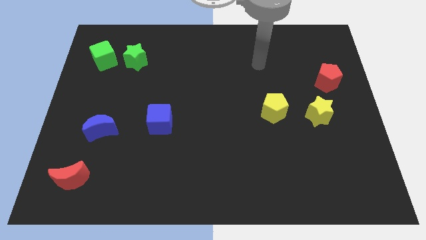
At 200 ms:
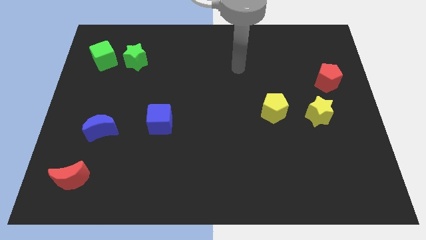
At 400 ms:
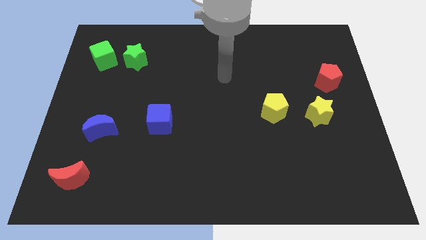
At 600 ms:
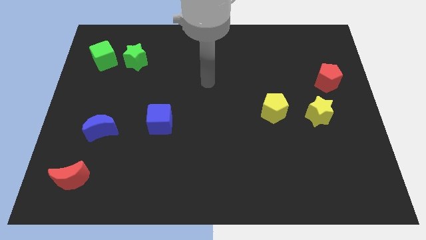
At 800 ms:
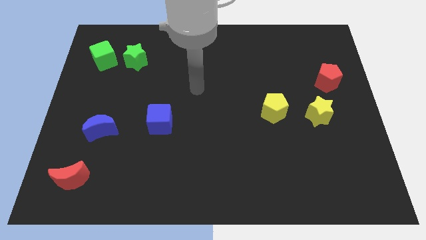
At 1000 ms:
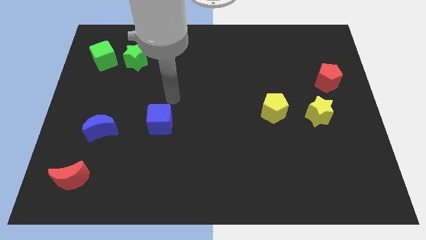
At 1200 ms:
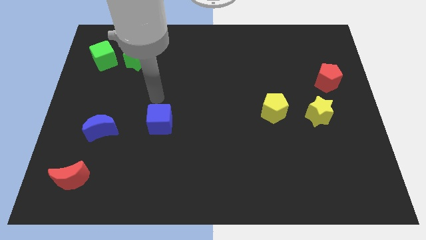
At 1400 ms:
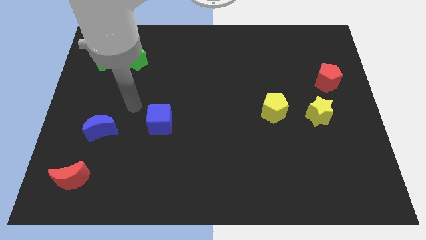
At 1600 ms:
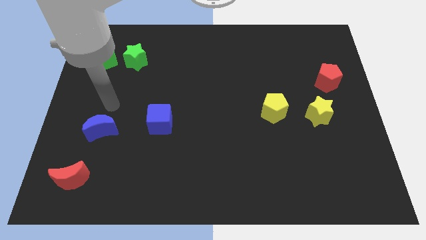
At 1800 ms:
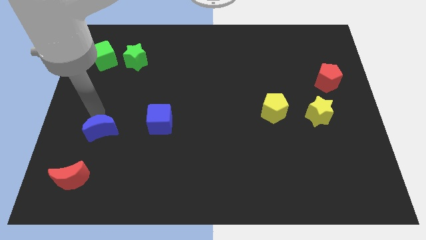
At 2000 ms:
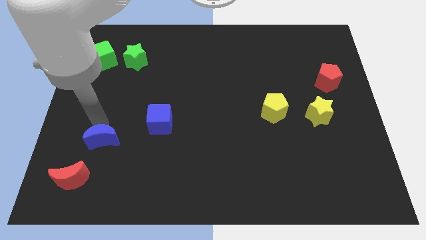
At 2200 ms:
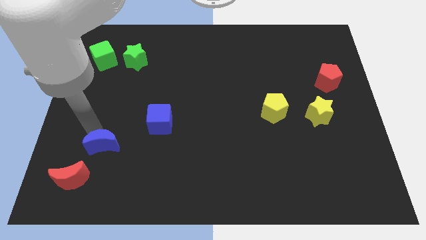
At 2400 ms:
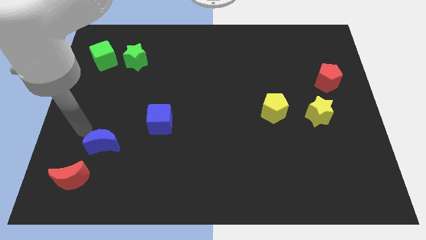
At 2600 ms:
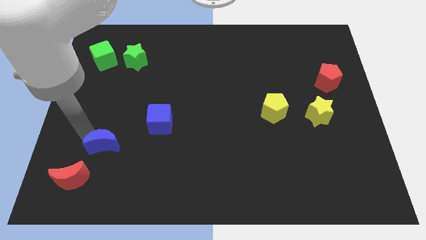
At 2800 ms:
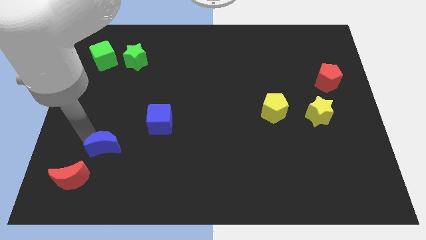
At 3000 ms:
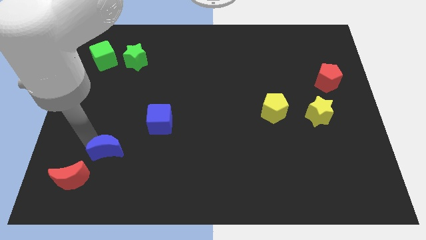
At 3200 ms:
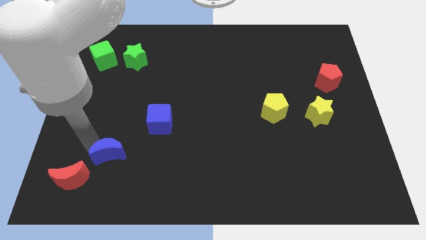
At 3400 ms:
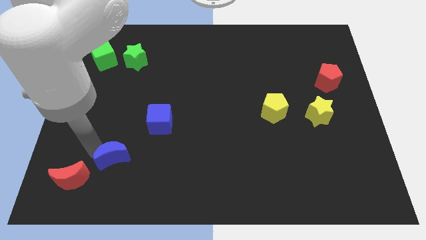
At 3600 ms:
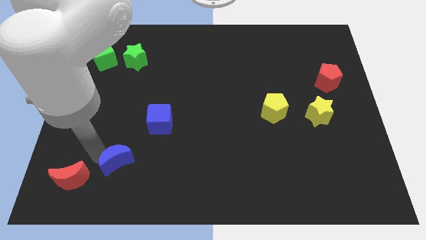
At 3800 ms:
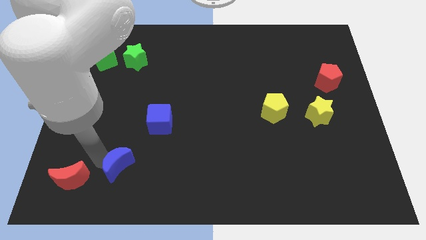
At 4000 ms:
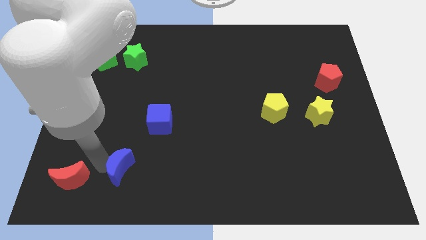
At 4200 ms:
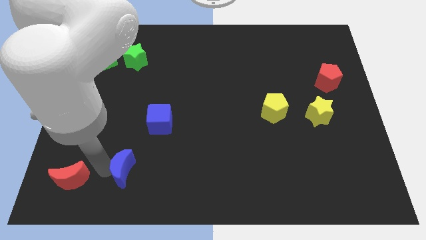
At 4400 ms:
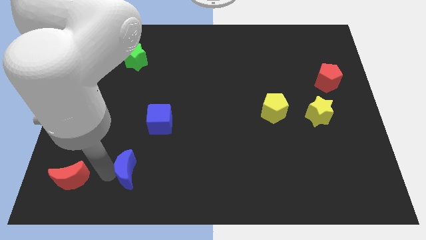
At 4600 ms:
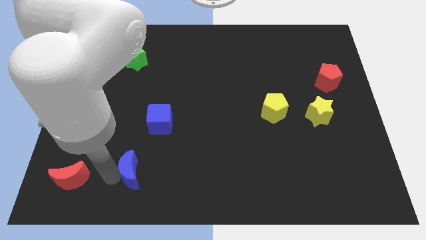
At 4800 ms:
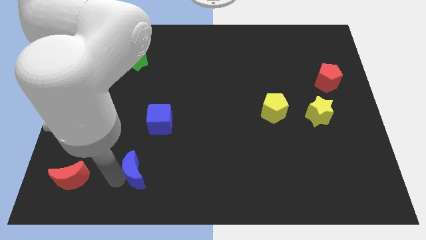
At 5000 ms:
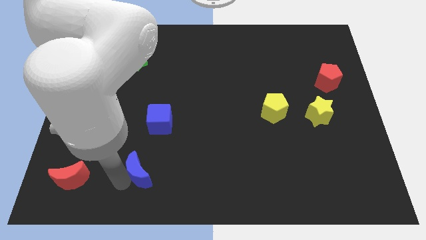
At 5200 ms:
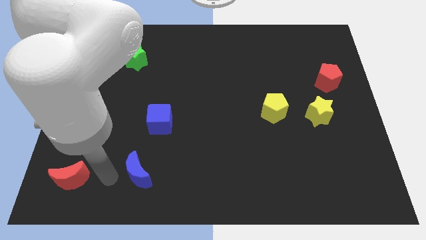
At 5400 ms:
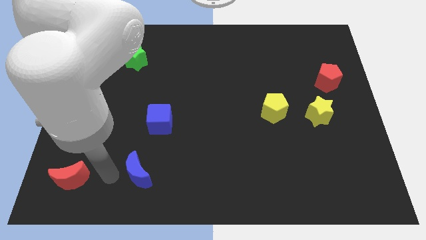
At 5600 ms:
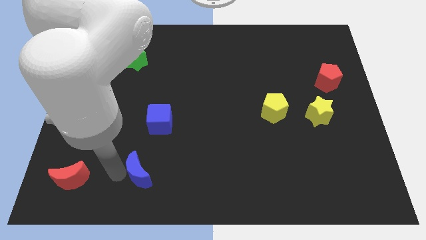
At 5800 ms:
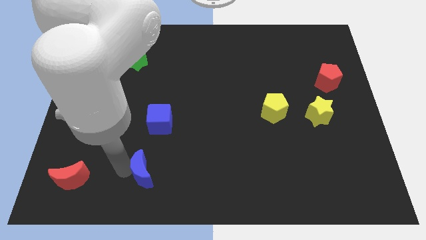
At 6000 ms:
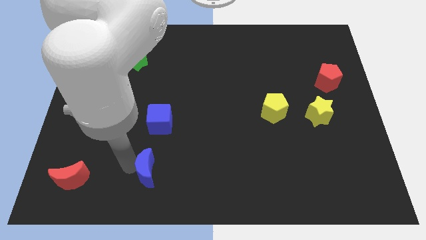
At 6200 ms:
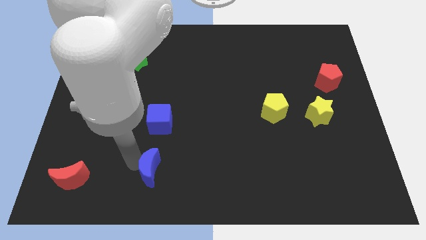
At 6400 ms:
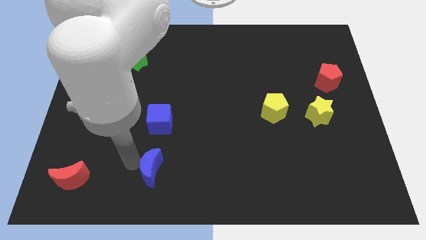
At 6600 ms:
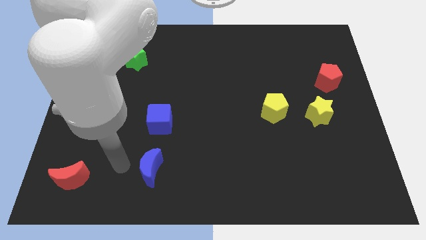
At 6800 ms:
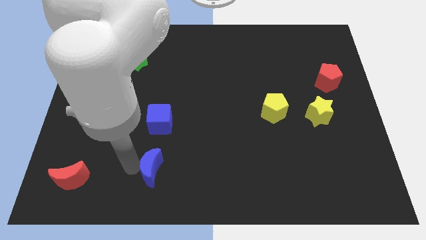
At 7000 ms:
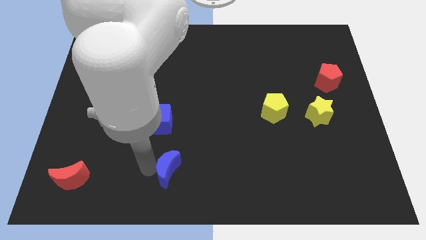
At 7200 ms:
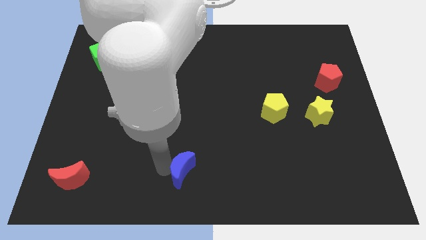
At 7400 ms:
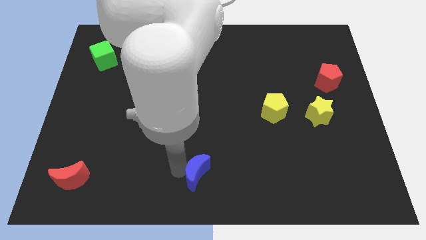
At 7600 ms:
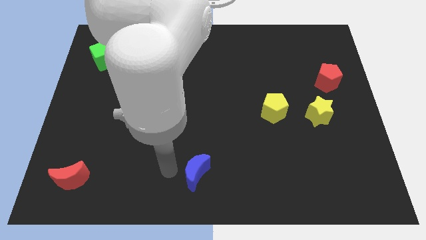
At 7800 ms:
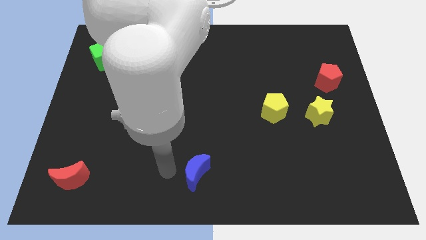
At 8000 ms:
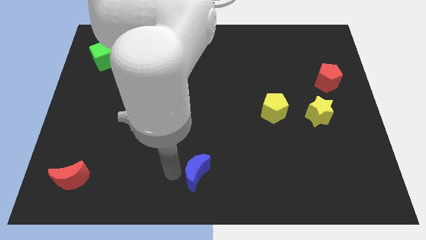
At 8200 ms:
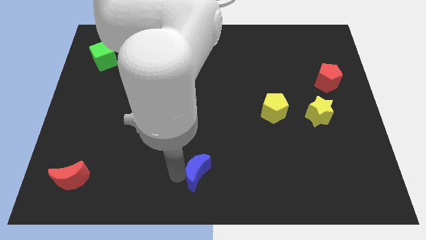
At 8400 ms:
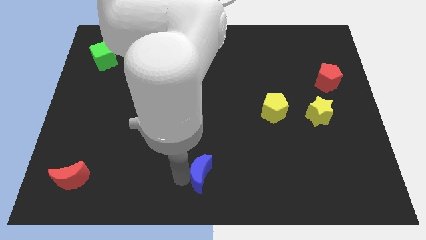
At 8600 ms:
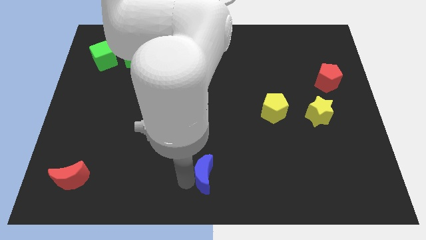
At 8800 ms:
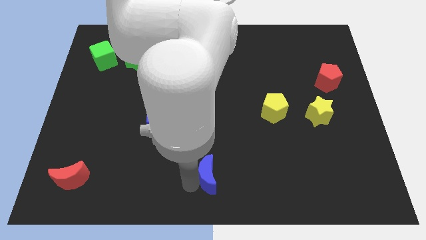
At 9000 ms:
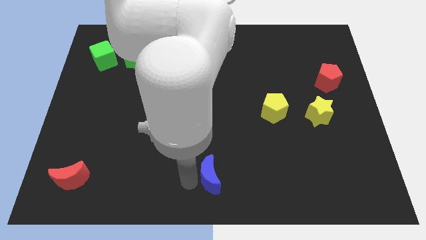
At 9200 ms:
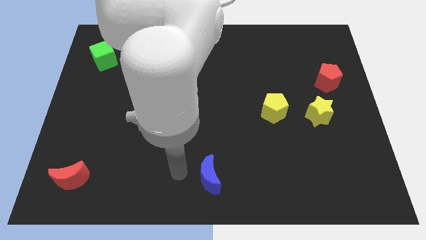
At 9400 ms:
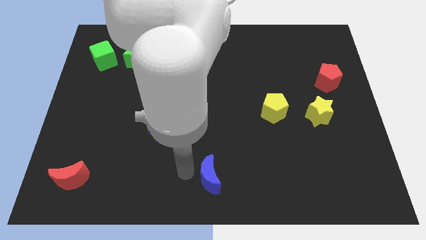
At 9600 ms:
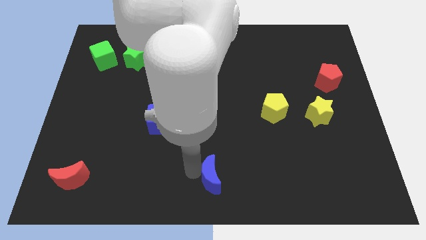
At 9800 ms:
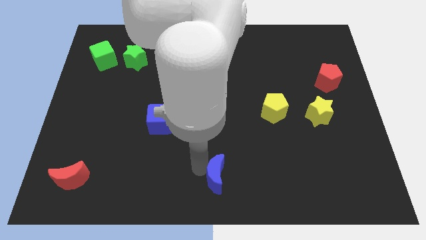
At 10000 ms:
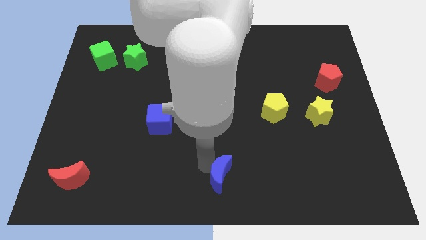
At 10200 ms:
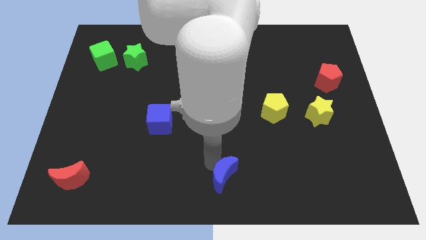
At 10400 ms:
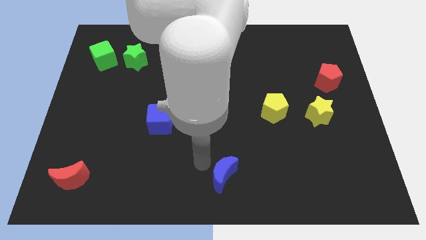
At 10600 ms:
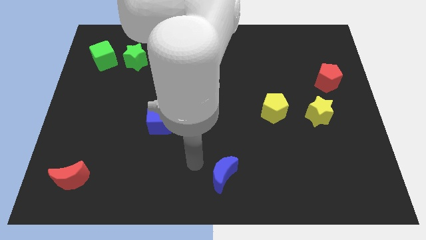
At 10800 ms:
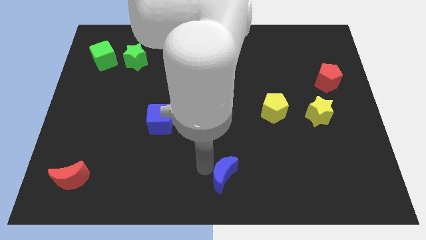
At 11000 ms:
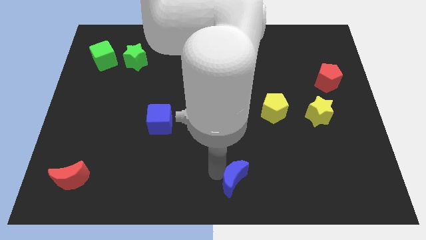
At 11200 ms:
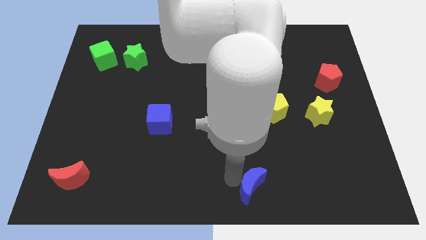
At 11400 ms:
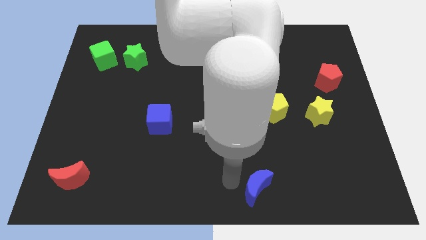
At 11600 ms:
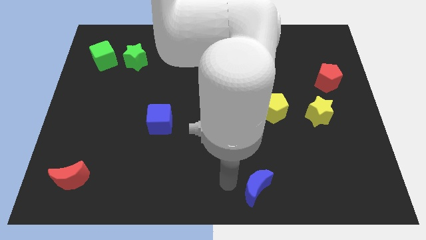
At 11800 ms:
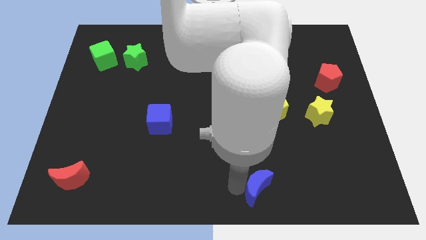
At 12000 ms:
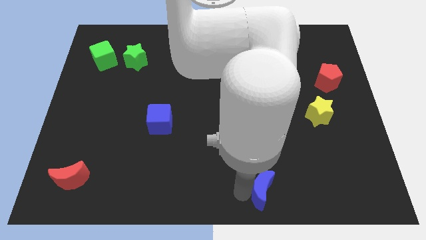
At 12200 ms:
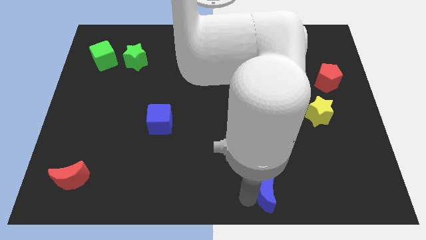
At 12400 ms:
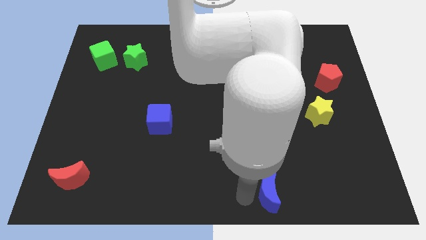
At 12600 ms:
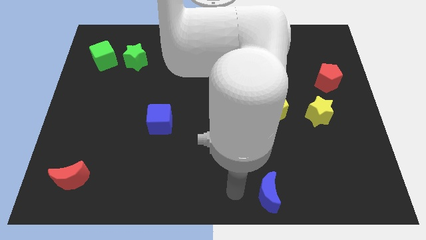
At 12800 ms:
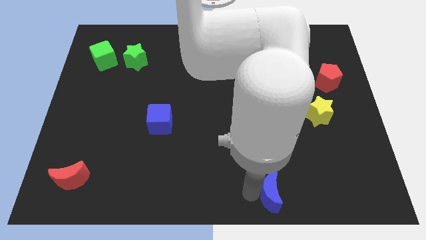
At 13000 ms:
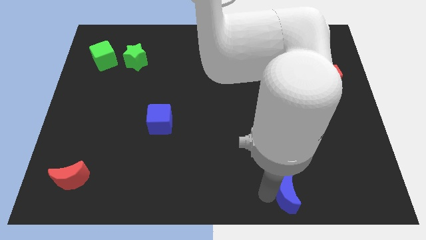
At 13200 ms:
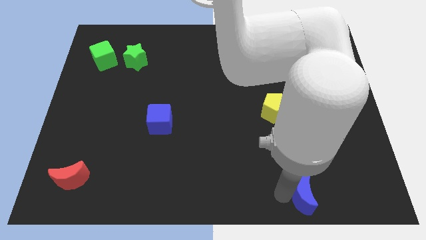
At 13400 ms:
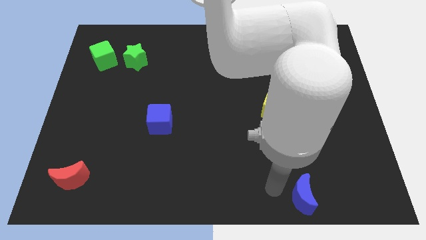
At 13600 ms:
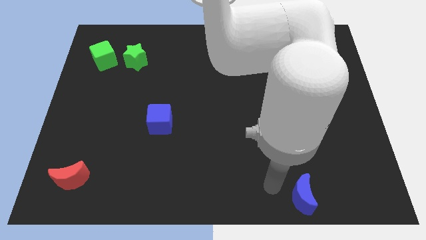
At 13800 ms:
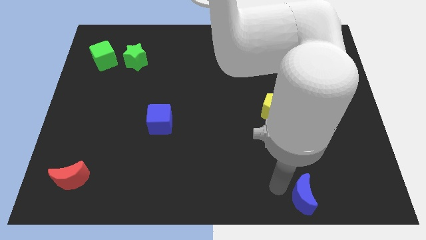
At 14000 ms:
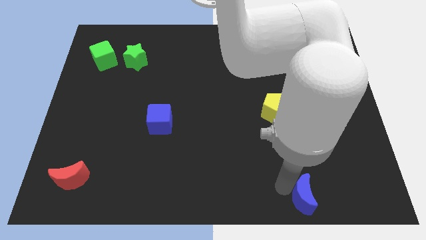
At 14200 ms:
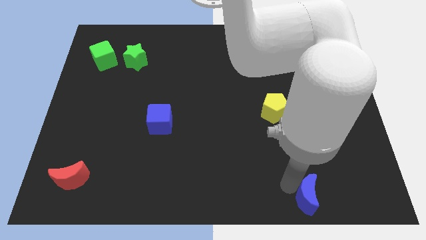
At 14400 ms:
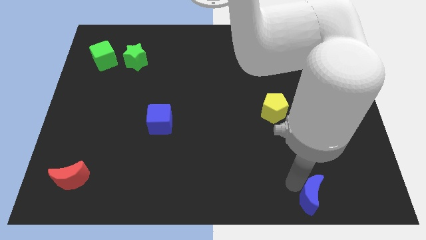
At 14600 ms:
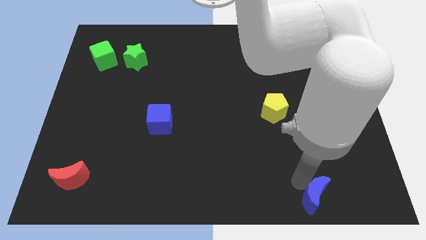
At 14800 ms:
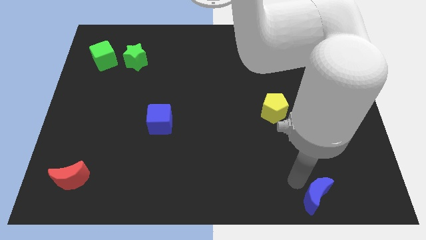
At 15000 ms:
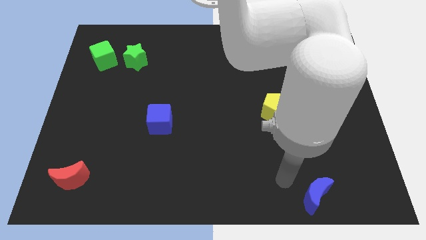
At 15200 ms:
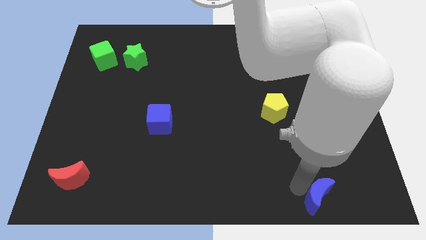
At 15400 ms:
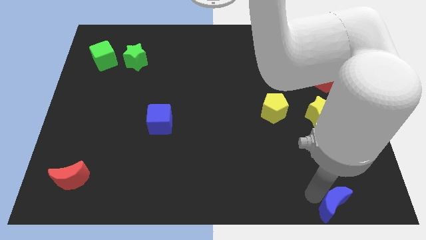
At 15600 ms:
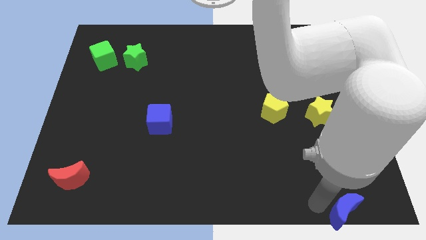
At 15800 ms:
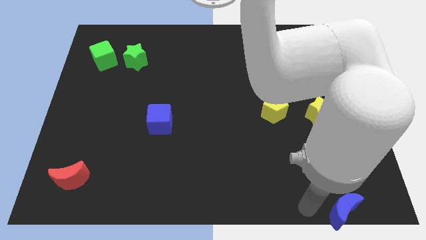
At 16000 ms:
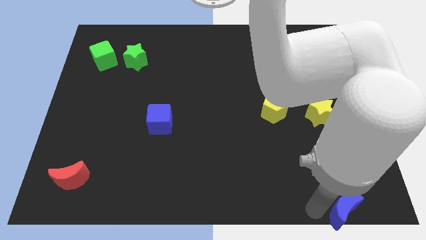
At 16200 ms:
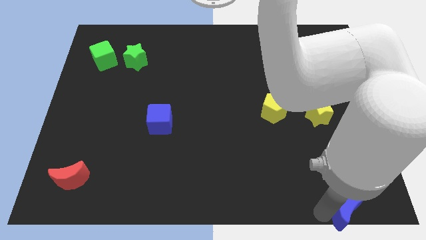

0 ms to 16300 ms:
move the blue moon to the bottom right of the board
